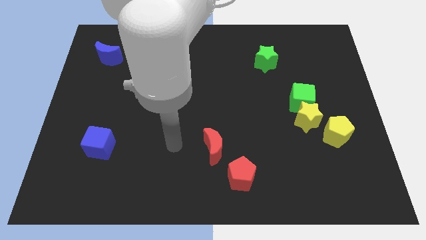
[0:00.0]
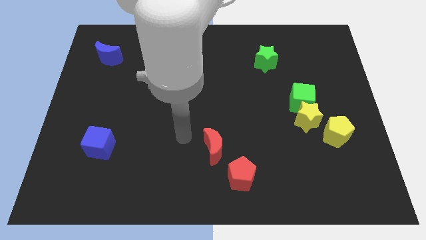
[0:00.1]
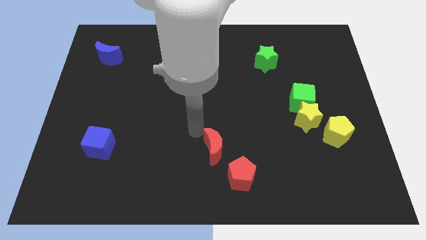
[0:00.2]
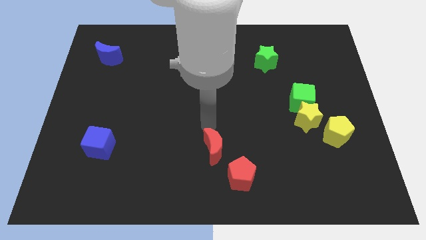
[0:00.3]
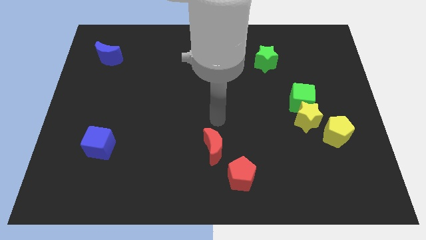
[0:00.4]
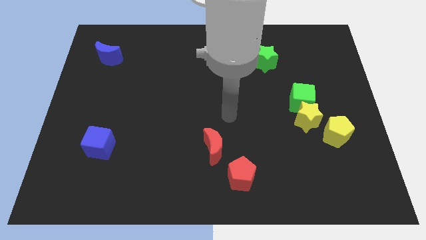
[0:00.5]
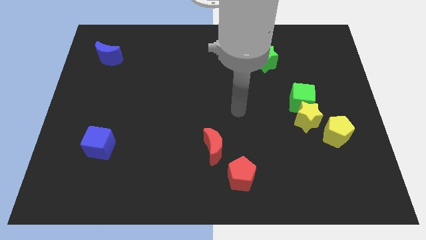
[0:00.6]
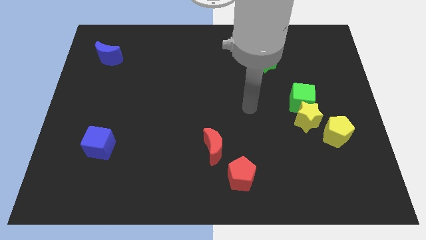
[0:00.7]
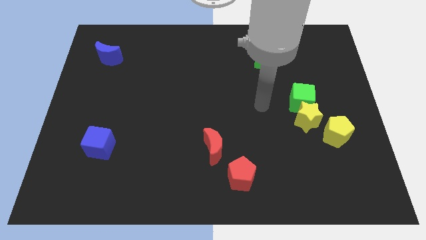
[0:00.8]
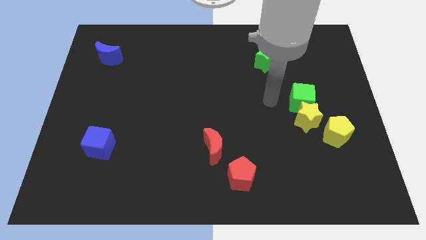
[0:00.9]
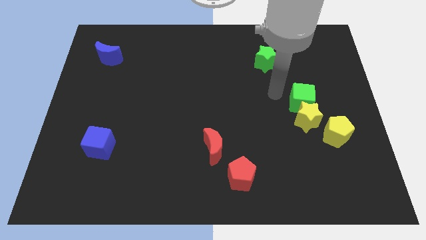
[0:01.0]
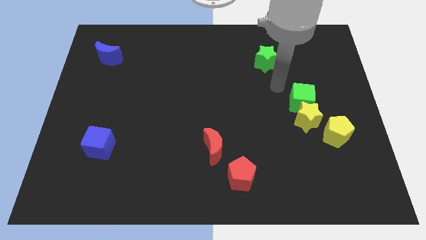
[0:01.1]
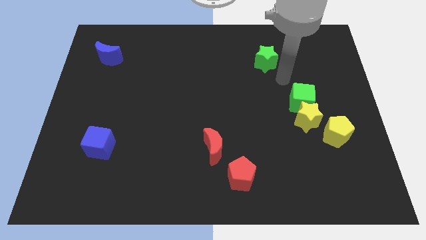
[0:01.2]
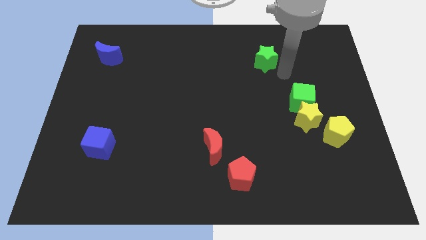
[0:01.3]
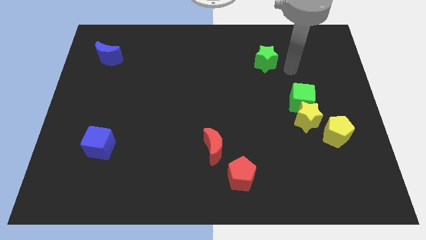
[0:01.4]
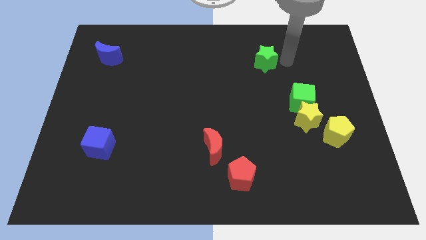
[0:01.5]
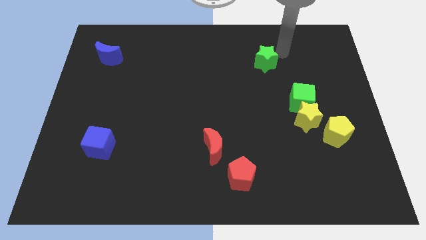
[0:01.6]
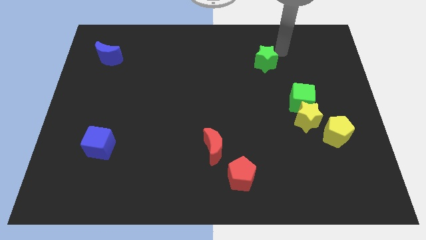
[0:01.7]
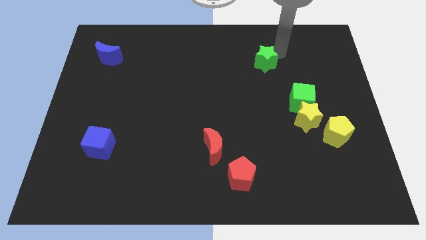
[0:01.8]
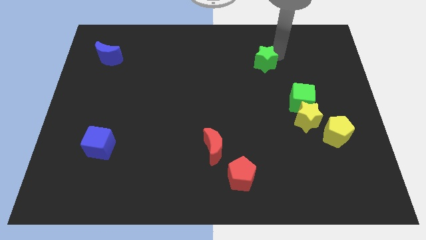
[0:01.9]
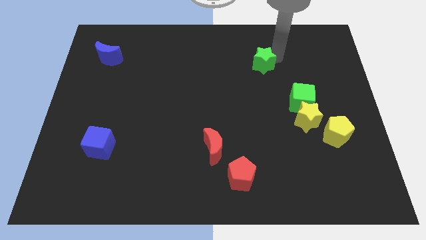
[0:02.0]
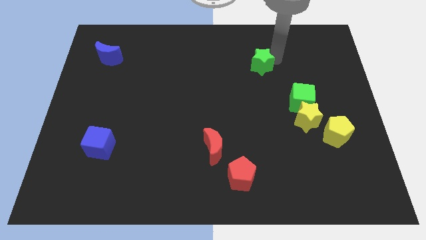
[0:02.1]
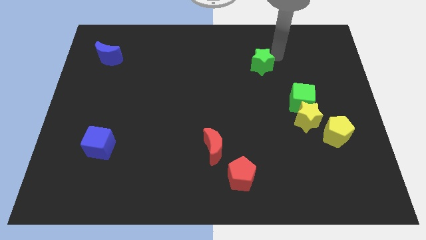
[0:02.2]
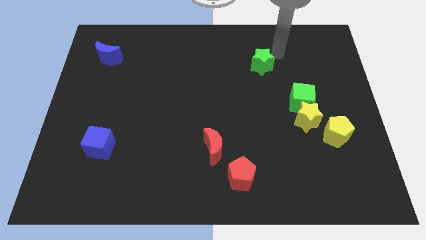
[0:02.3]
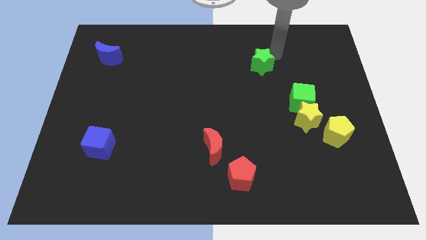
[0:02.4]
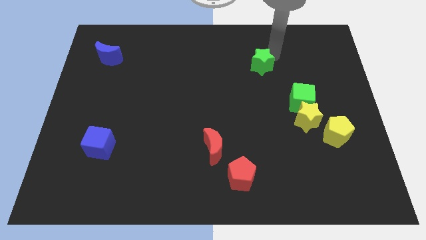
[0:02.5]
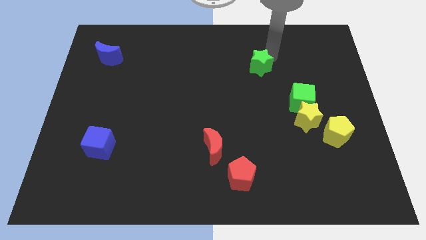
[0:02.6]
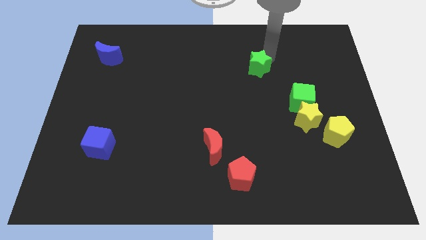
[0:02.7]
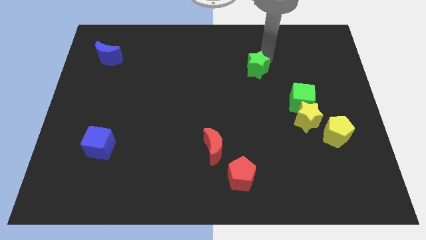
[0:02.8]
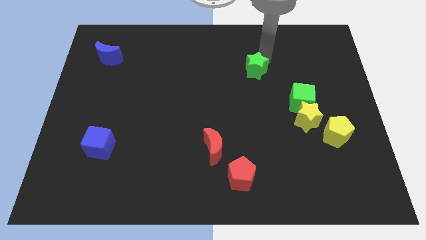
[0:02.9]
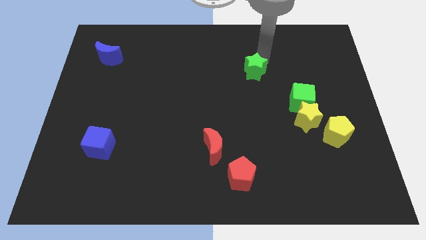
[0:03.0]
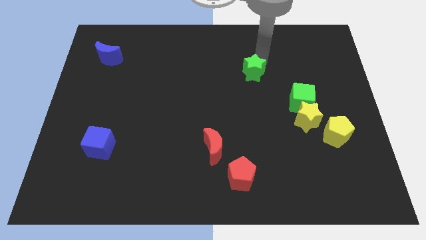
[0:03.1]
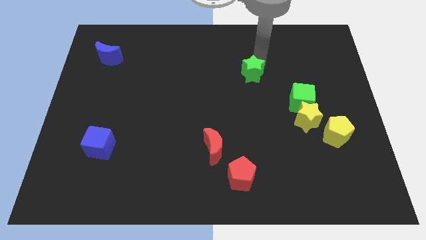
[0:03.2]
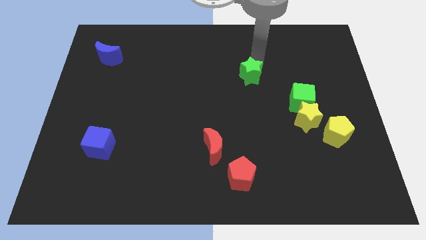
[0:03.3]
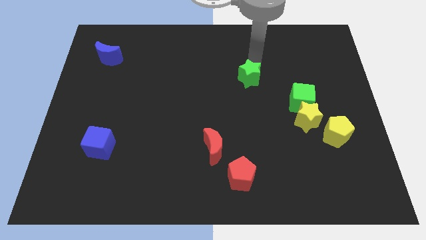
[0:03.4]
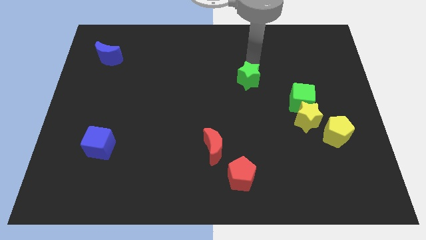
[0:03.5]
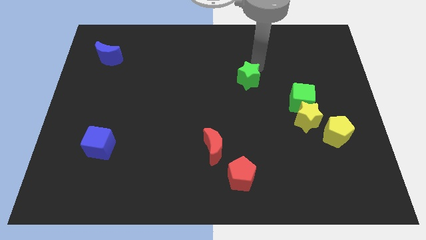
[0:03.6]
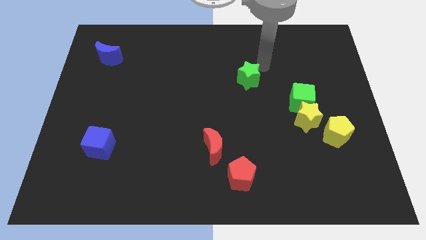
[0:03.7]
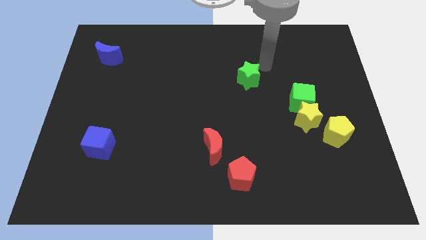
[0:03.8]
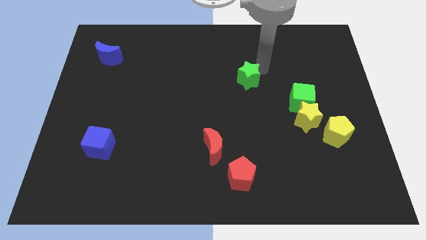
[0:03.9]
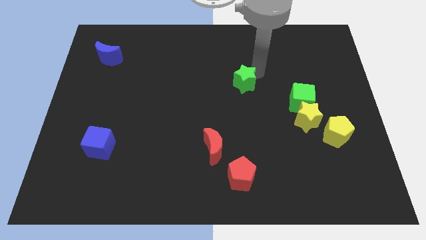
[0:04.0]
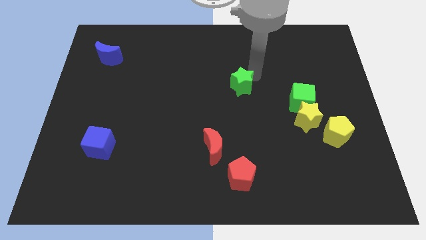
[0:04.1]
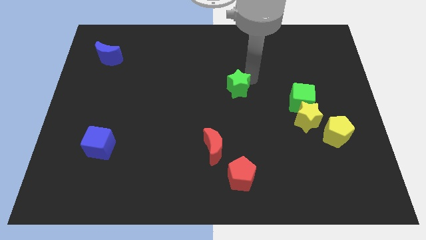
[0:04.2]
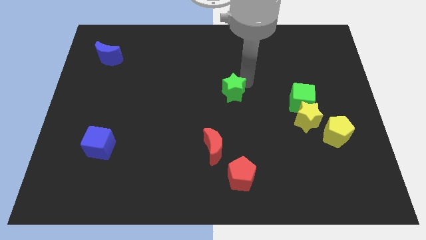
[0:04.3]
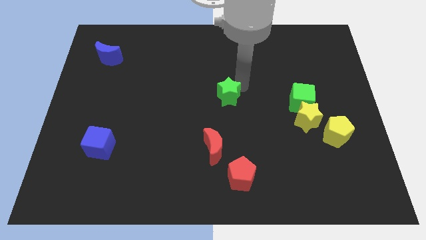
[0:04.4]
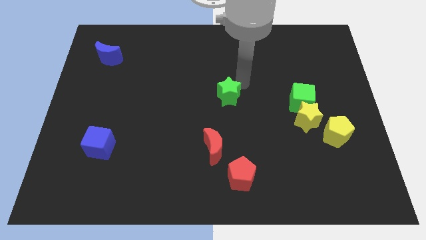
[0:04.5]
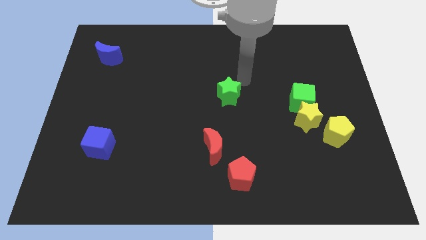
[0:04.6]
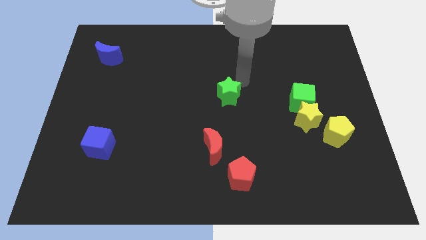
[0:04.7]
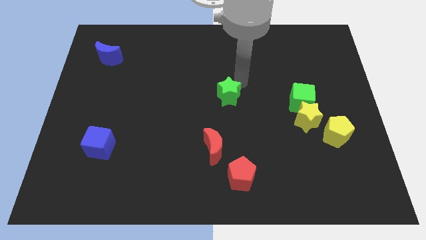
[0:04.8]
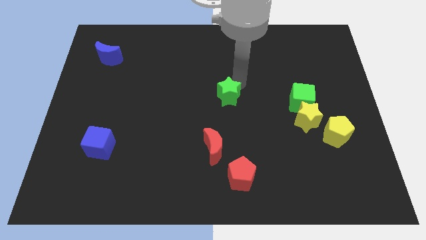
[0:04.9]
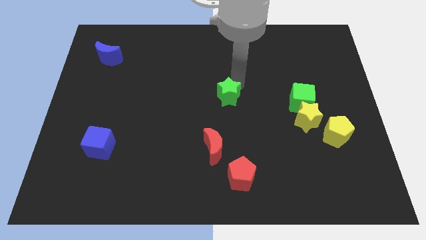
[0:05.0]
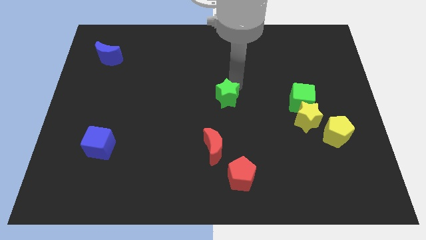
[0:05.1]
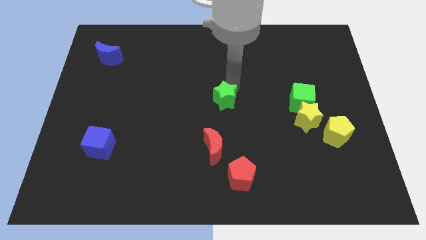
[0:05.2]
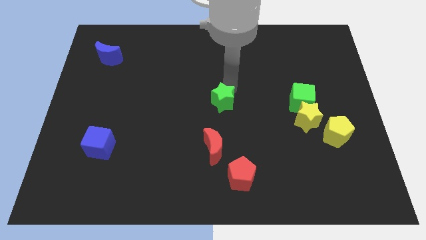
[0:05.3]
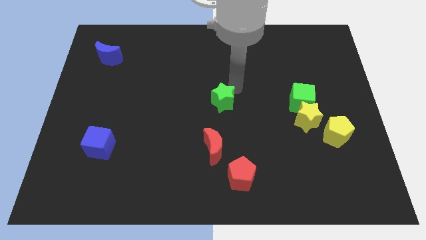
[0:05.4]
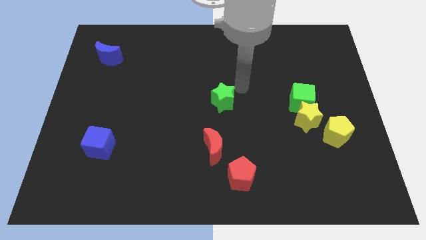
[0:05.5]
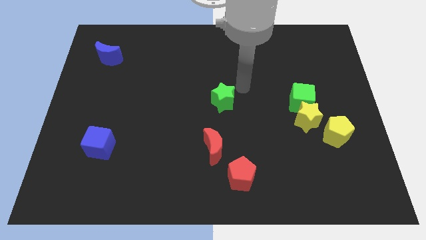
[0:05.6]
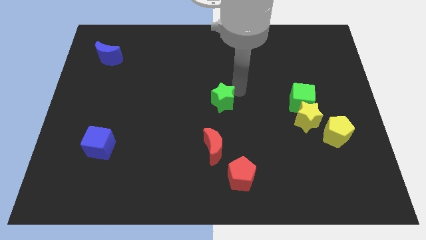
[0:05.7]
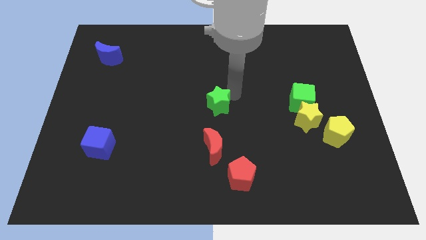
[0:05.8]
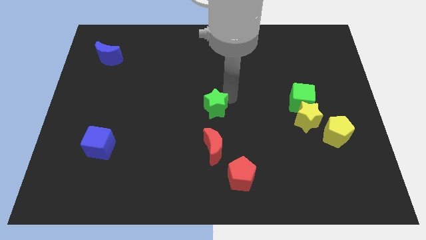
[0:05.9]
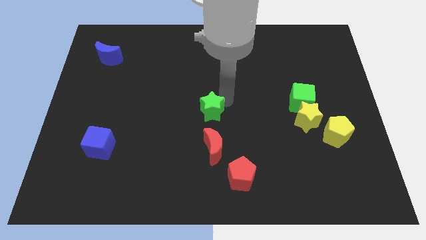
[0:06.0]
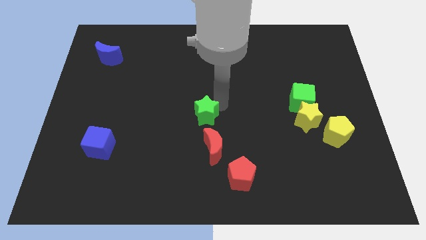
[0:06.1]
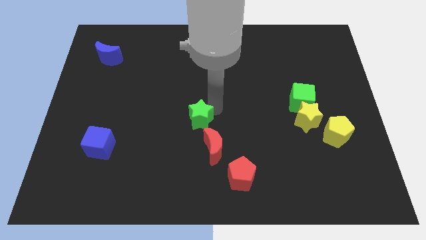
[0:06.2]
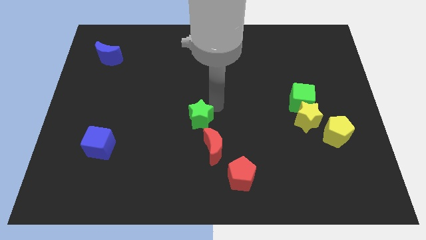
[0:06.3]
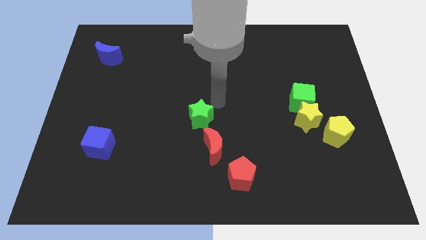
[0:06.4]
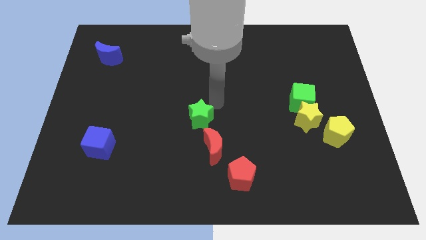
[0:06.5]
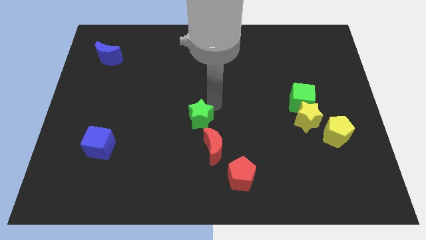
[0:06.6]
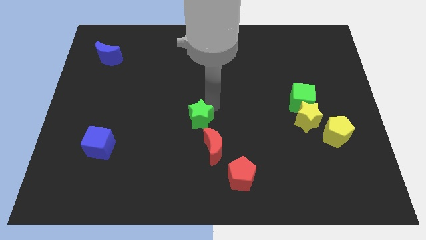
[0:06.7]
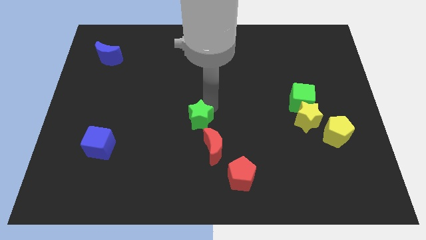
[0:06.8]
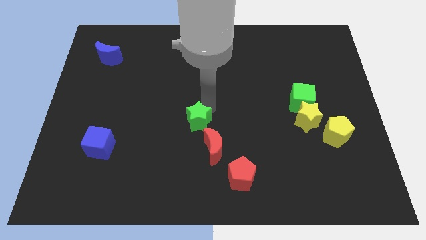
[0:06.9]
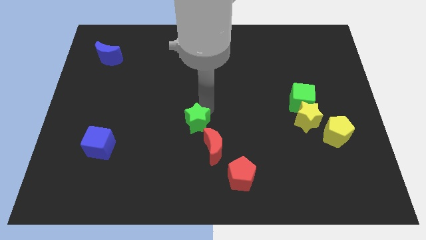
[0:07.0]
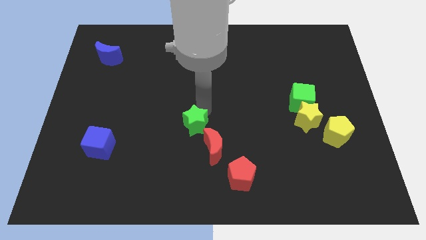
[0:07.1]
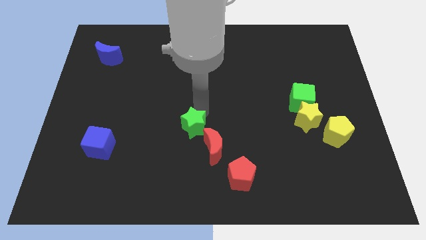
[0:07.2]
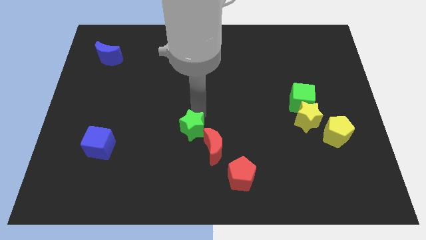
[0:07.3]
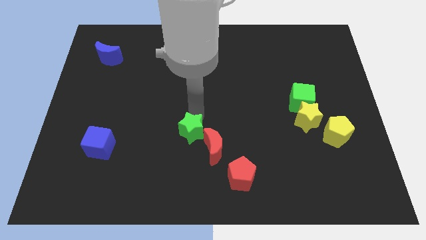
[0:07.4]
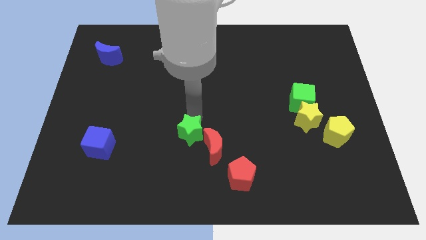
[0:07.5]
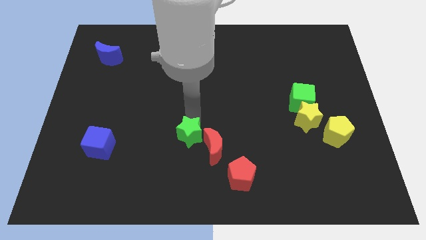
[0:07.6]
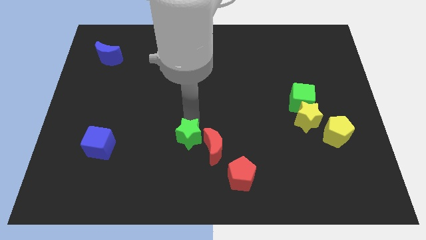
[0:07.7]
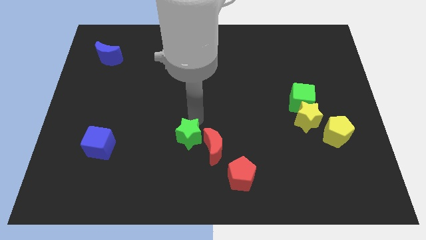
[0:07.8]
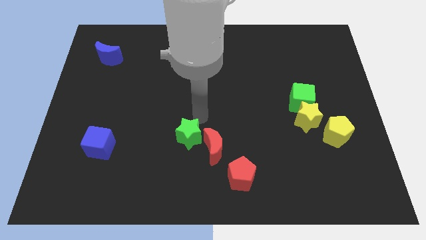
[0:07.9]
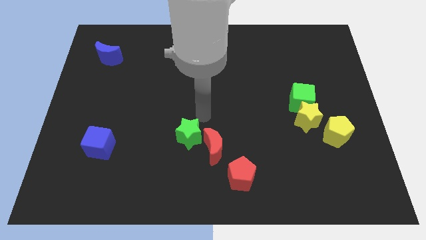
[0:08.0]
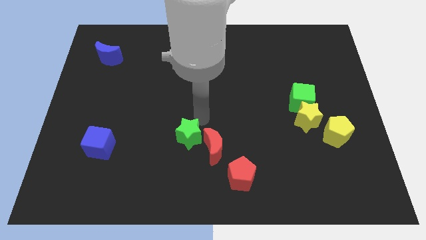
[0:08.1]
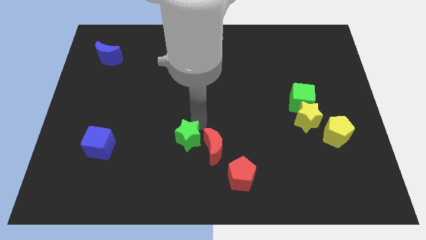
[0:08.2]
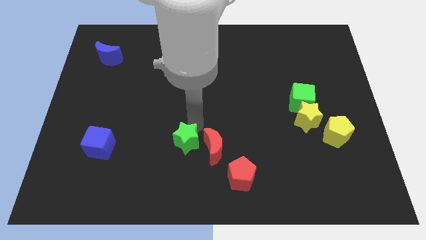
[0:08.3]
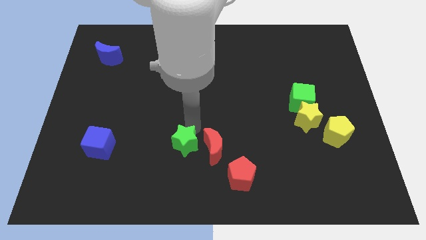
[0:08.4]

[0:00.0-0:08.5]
move the green star diagonally down and to the left of the red moon
